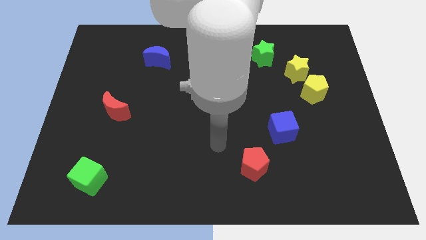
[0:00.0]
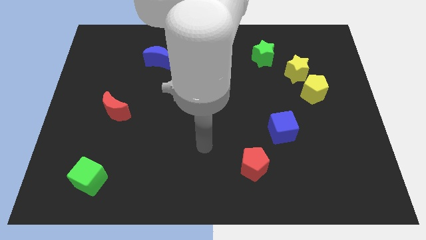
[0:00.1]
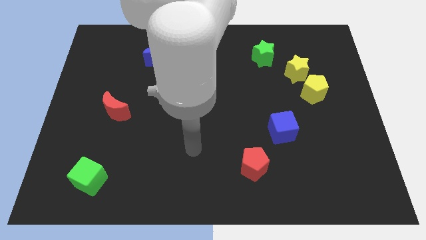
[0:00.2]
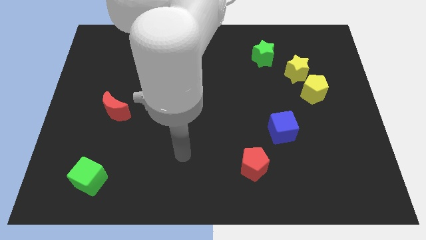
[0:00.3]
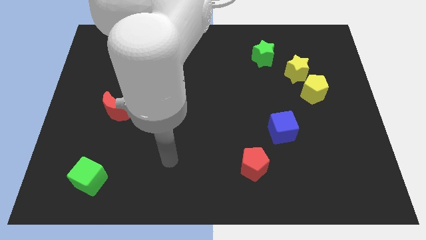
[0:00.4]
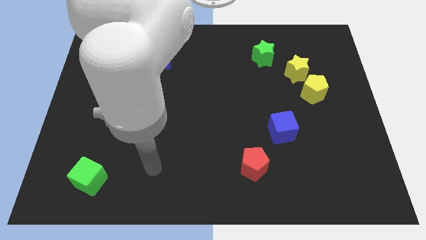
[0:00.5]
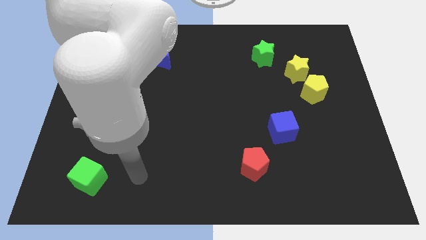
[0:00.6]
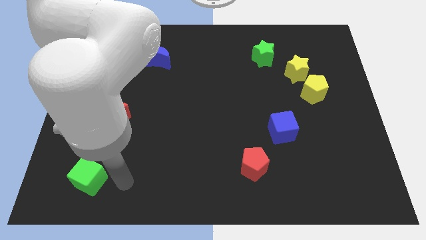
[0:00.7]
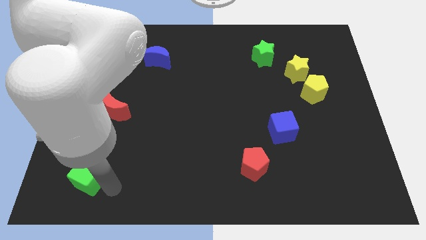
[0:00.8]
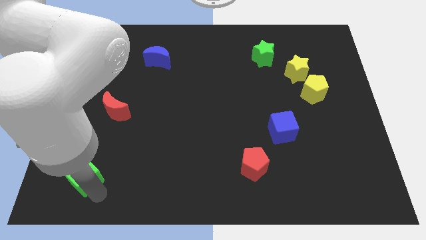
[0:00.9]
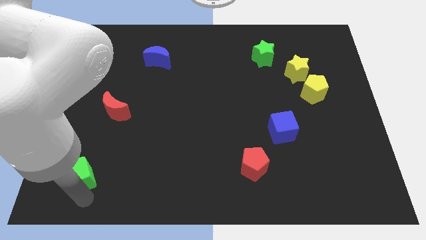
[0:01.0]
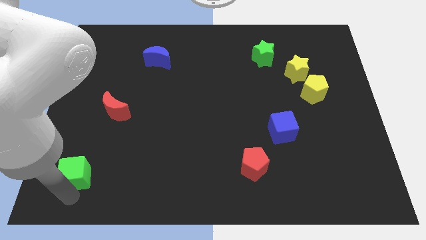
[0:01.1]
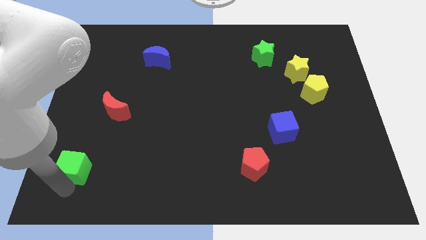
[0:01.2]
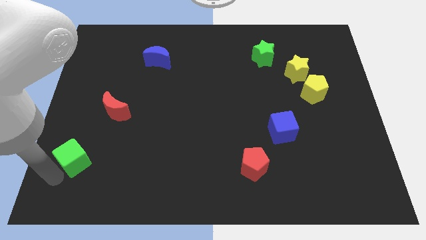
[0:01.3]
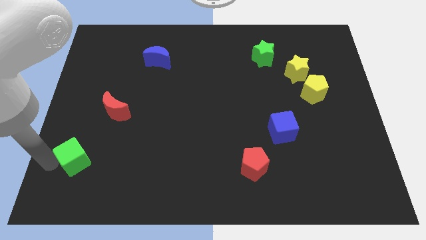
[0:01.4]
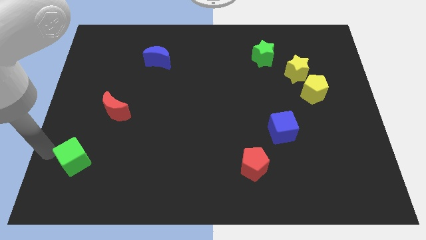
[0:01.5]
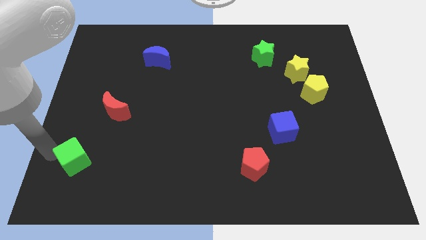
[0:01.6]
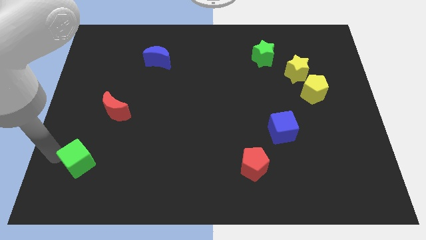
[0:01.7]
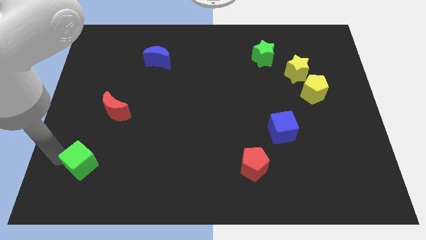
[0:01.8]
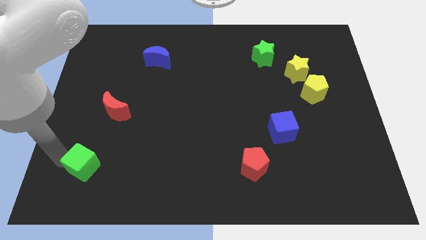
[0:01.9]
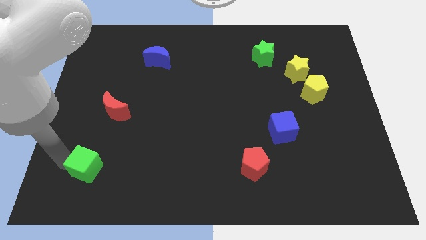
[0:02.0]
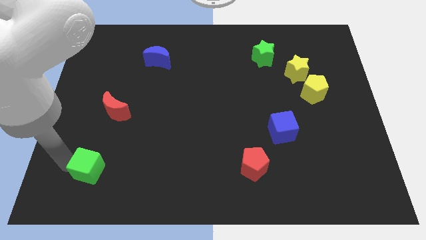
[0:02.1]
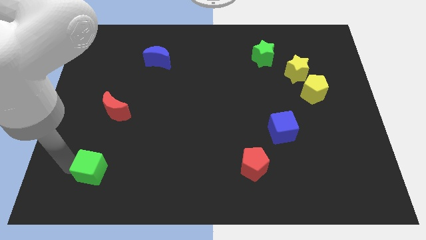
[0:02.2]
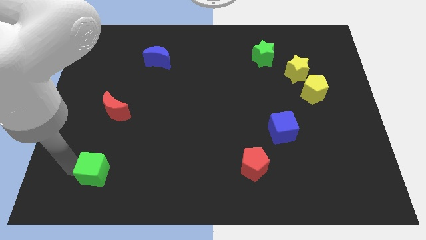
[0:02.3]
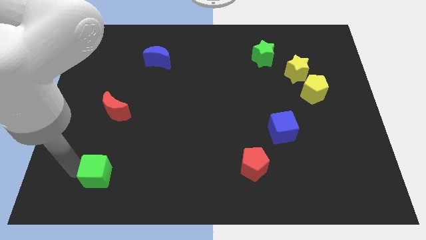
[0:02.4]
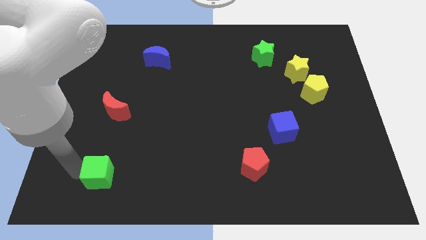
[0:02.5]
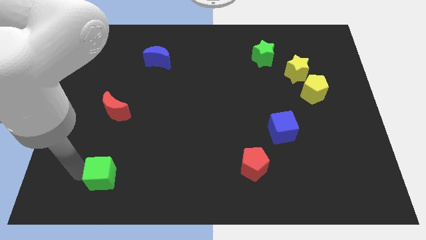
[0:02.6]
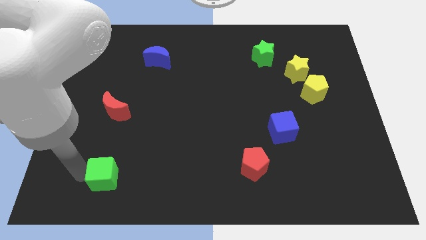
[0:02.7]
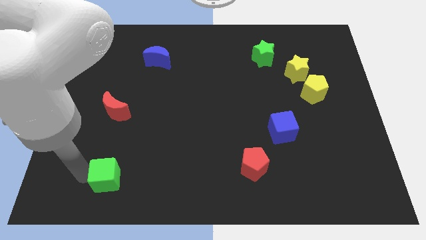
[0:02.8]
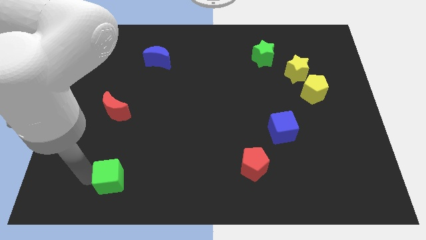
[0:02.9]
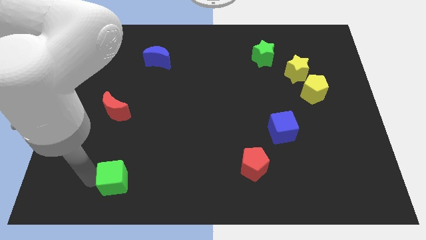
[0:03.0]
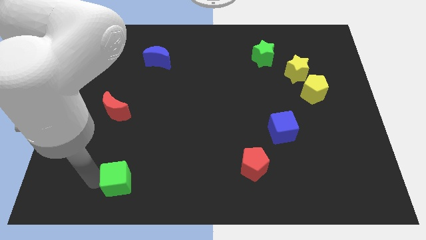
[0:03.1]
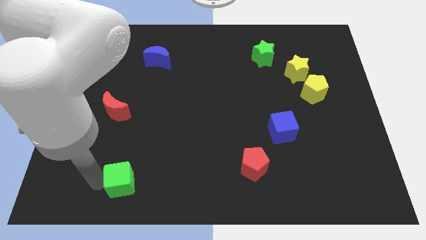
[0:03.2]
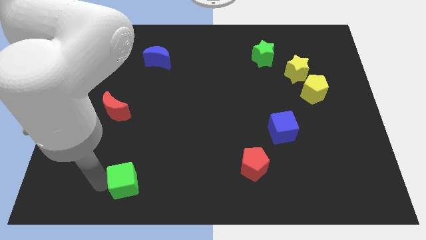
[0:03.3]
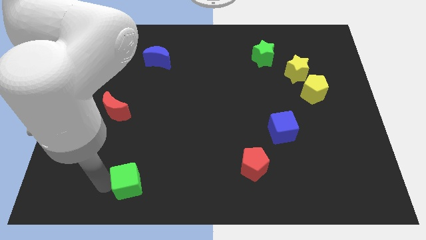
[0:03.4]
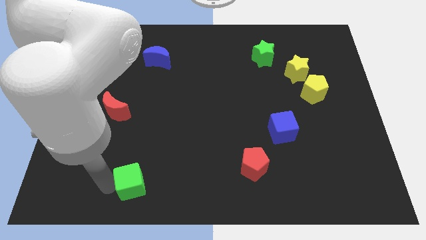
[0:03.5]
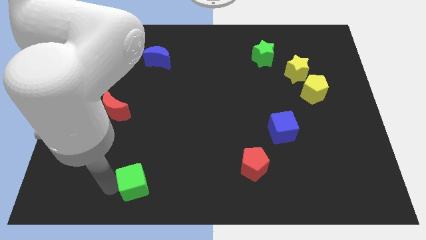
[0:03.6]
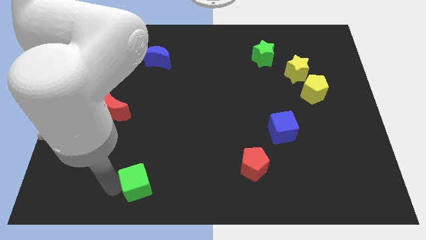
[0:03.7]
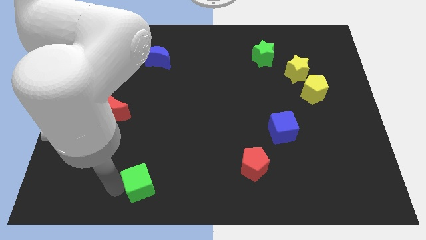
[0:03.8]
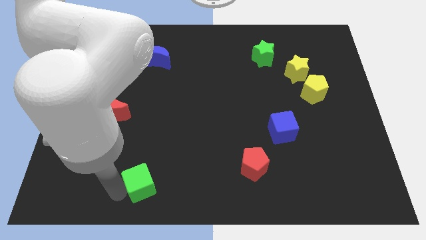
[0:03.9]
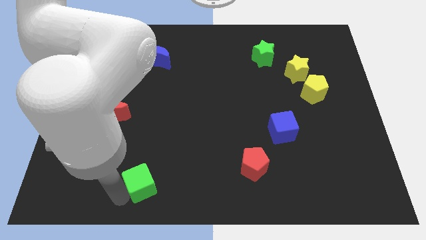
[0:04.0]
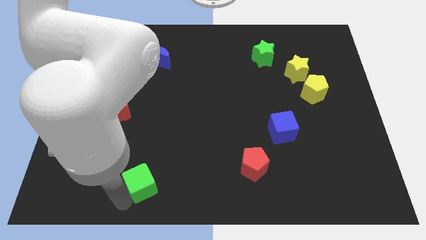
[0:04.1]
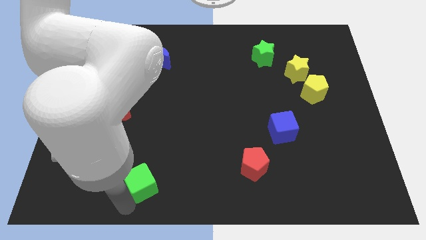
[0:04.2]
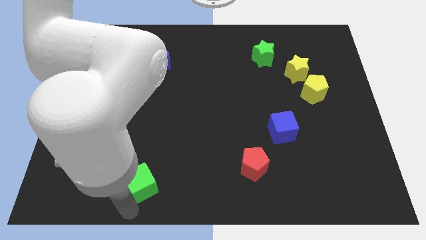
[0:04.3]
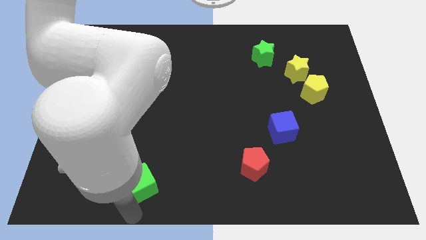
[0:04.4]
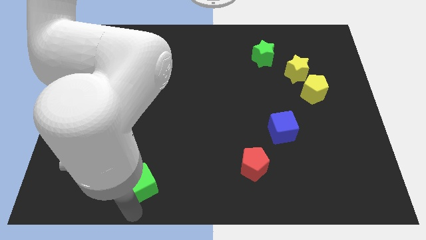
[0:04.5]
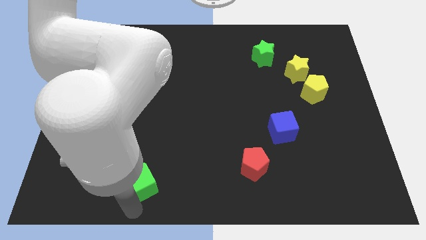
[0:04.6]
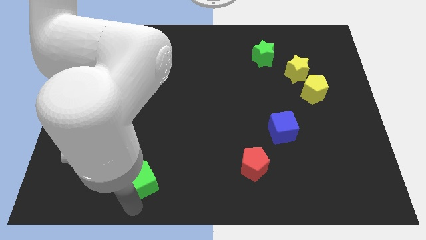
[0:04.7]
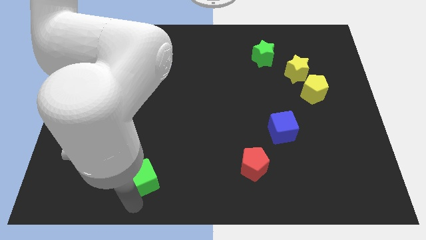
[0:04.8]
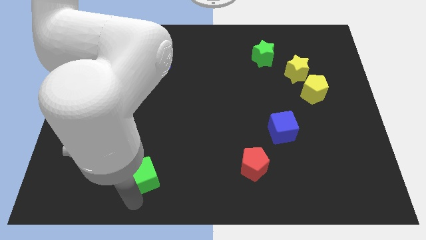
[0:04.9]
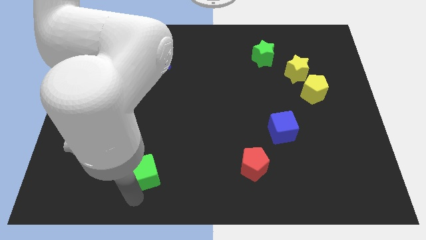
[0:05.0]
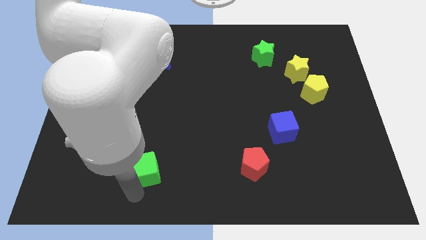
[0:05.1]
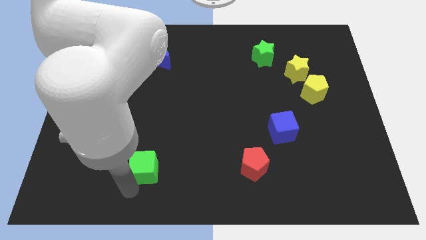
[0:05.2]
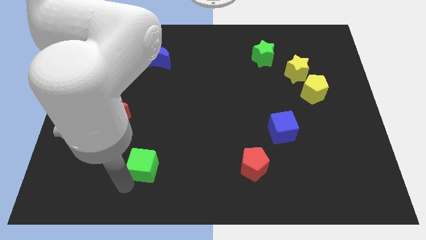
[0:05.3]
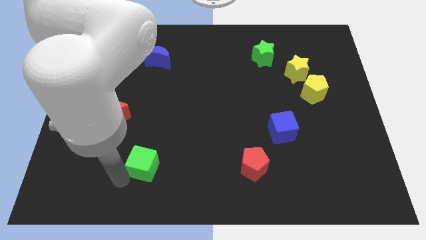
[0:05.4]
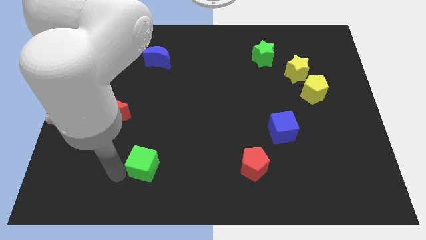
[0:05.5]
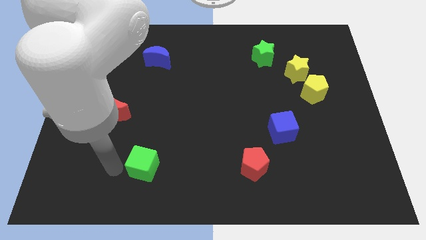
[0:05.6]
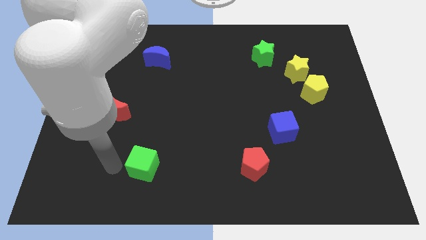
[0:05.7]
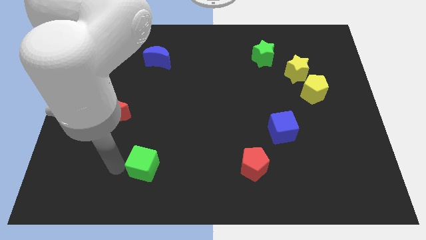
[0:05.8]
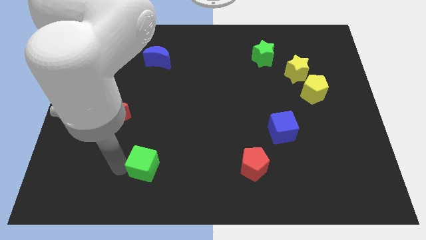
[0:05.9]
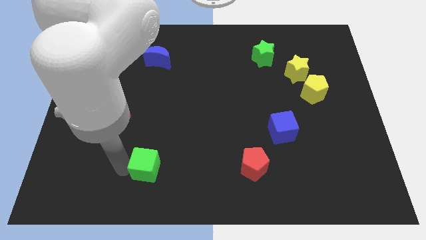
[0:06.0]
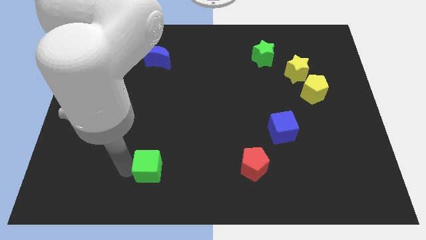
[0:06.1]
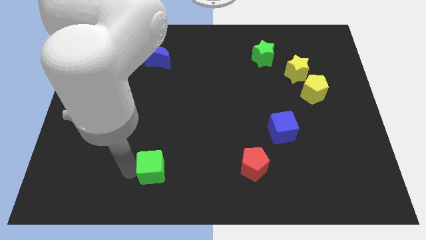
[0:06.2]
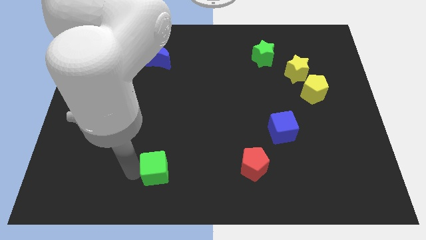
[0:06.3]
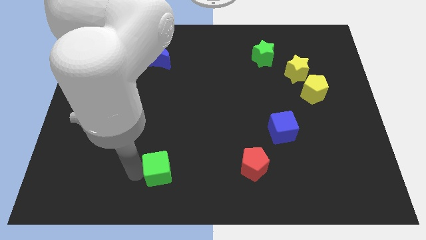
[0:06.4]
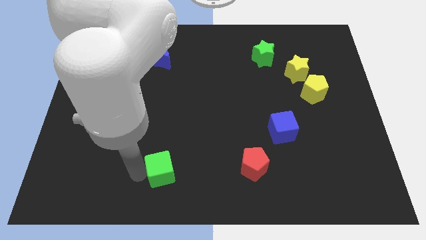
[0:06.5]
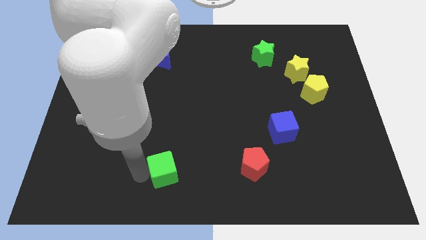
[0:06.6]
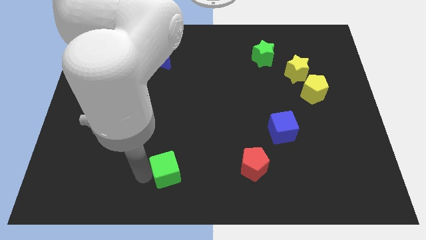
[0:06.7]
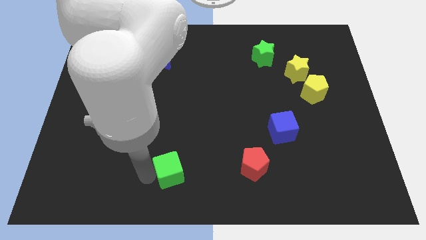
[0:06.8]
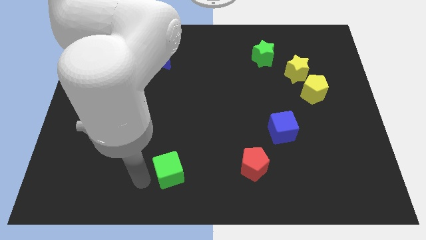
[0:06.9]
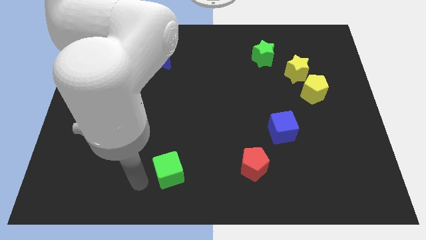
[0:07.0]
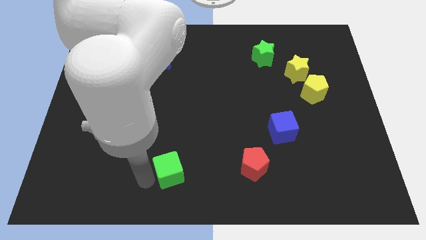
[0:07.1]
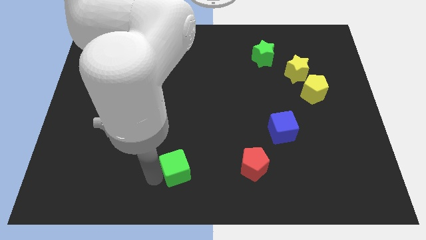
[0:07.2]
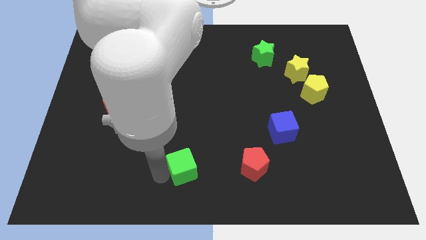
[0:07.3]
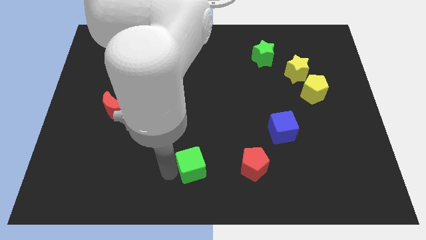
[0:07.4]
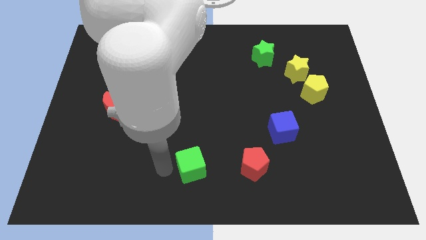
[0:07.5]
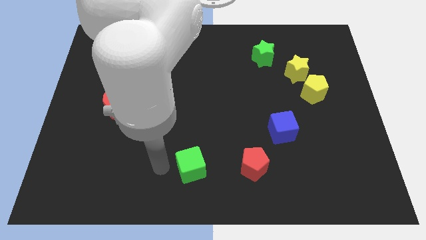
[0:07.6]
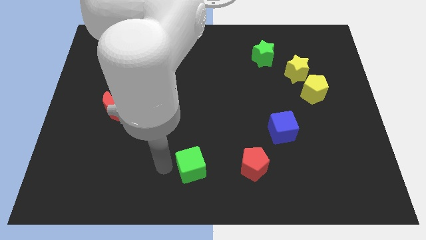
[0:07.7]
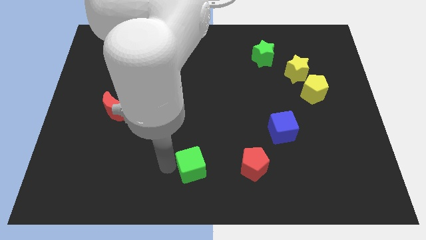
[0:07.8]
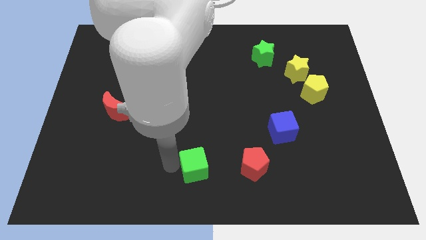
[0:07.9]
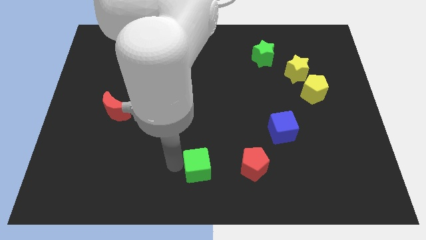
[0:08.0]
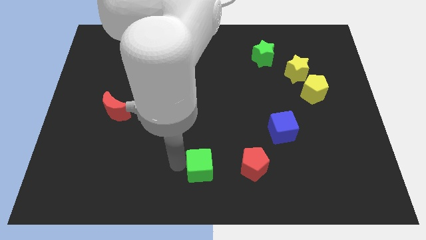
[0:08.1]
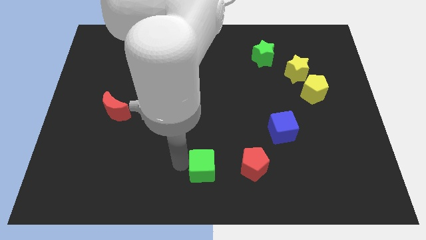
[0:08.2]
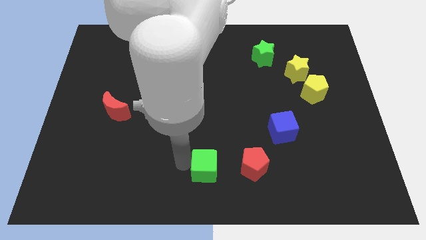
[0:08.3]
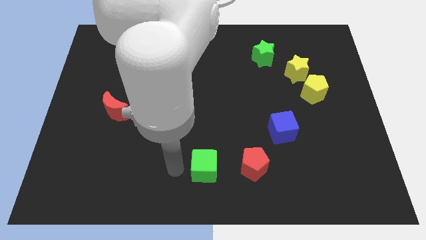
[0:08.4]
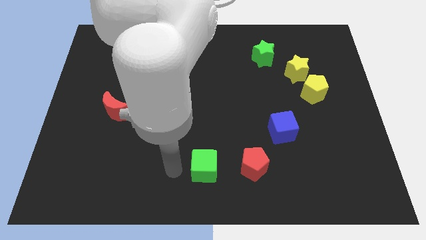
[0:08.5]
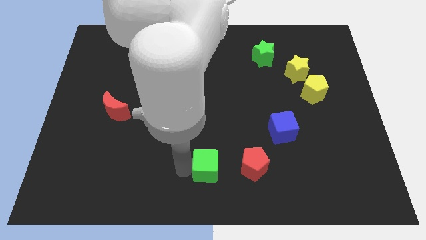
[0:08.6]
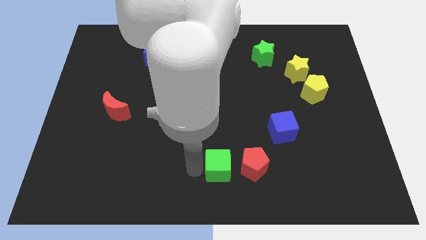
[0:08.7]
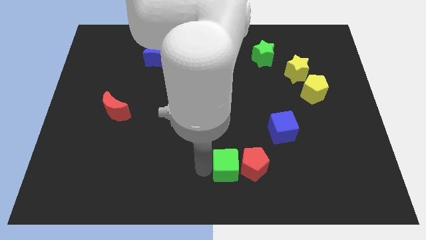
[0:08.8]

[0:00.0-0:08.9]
push the green cube to the red pentagon
